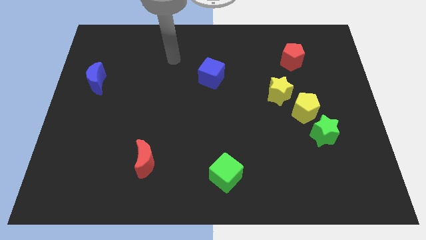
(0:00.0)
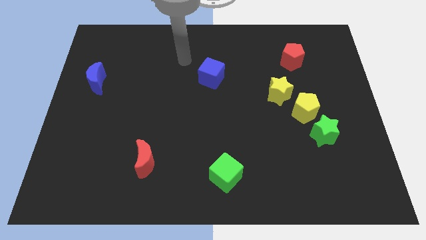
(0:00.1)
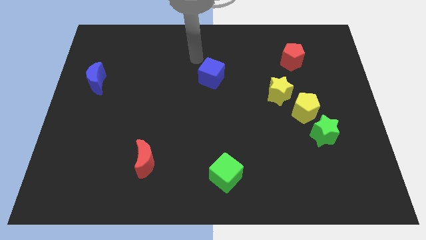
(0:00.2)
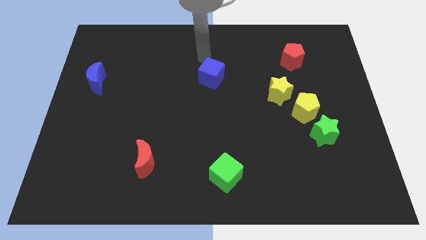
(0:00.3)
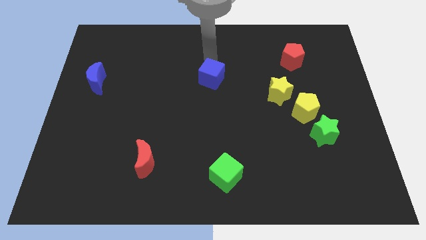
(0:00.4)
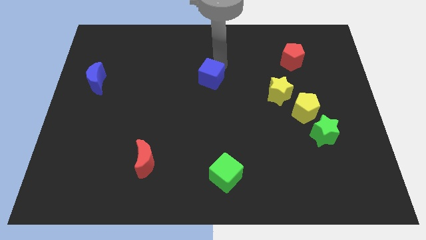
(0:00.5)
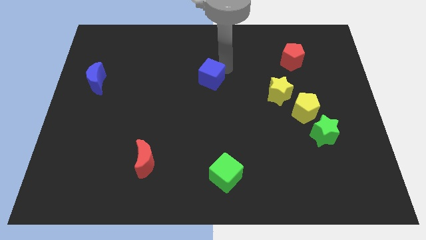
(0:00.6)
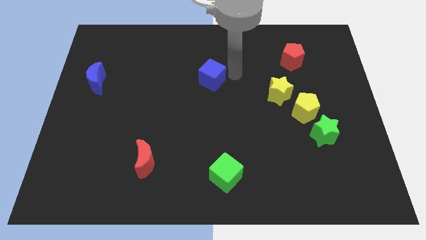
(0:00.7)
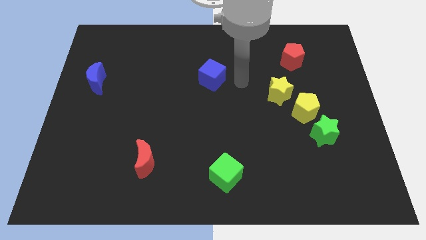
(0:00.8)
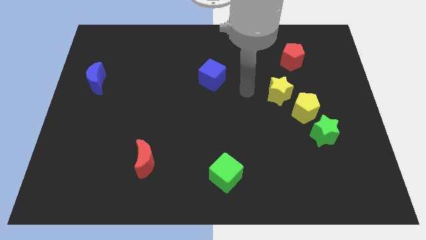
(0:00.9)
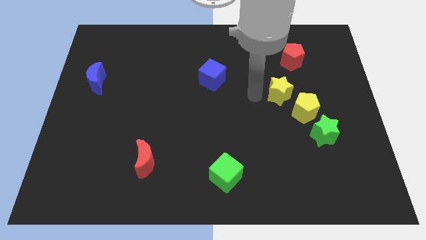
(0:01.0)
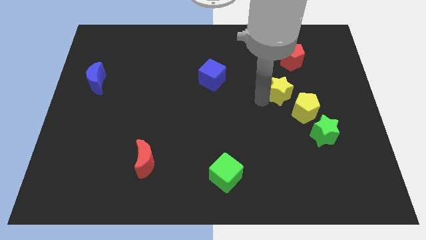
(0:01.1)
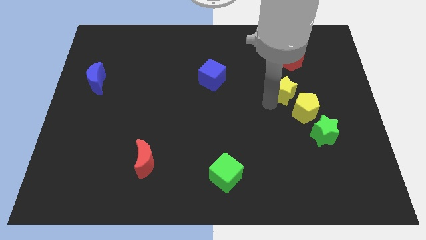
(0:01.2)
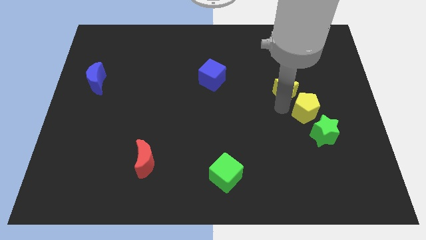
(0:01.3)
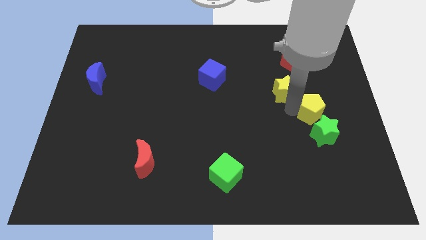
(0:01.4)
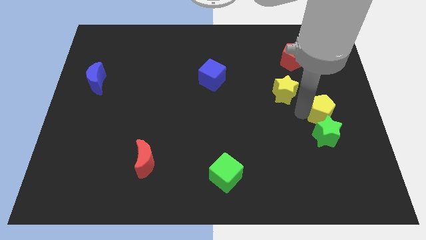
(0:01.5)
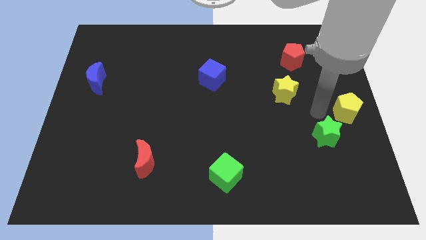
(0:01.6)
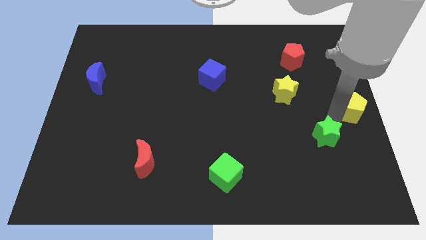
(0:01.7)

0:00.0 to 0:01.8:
pull the green star apart from the yellow pentagon

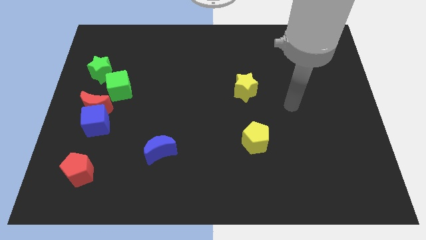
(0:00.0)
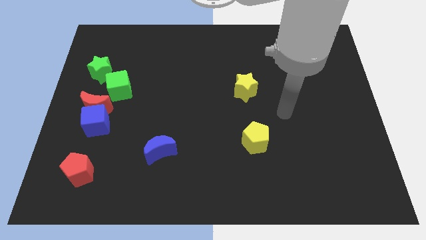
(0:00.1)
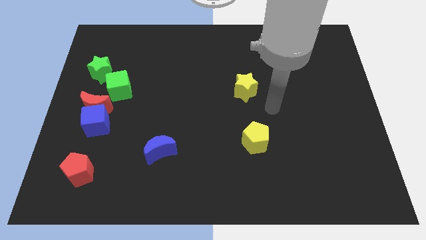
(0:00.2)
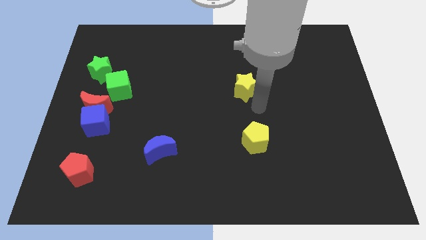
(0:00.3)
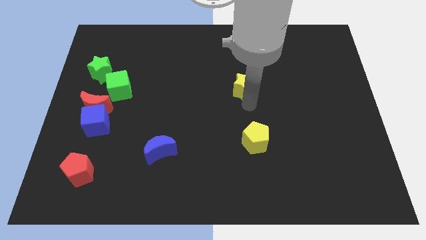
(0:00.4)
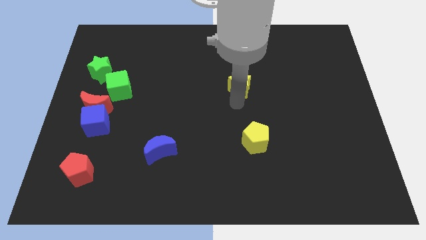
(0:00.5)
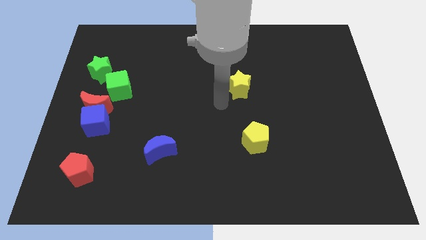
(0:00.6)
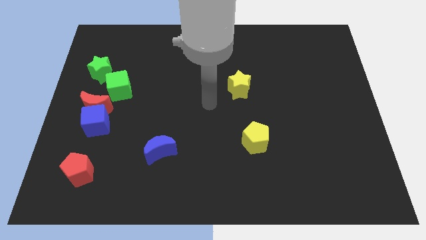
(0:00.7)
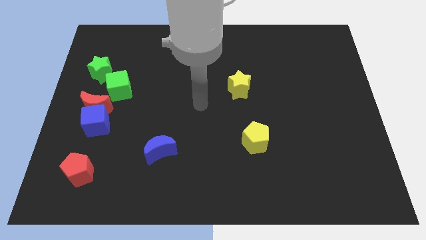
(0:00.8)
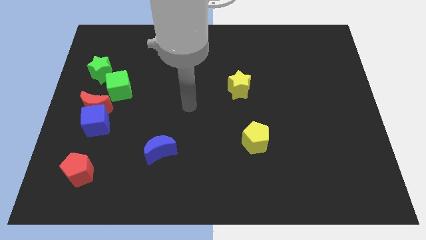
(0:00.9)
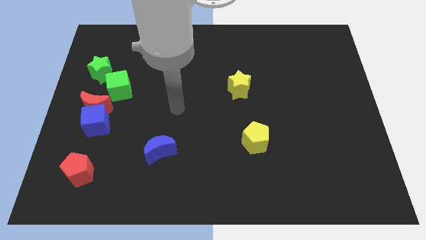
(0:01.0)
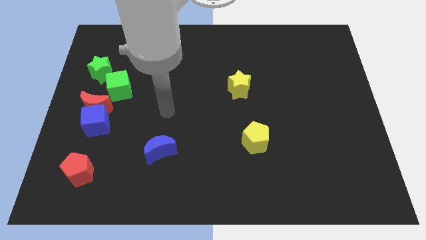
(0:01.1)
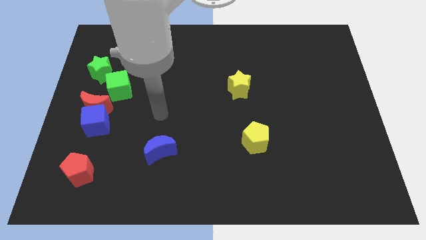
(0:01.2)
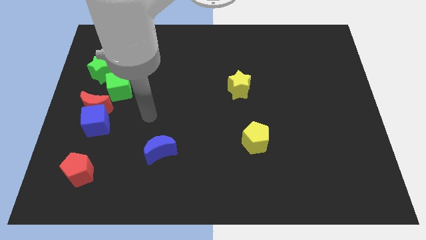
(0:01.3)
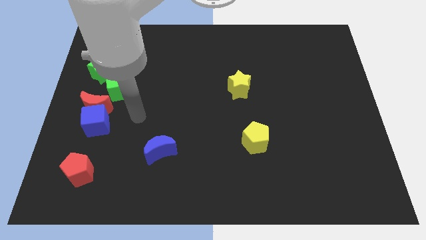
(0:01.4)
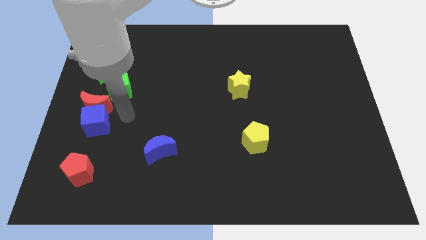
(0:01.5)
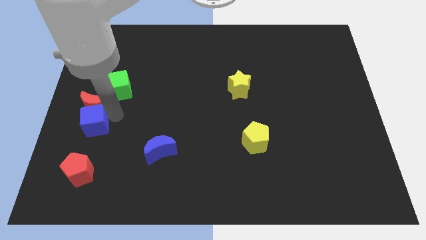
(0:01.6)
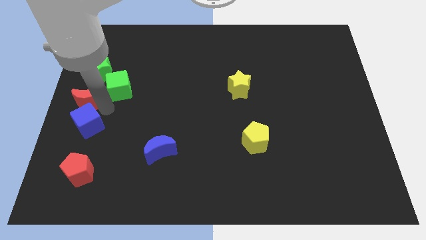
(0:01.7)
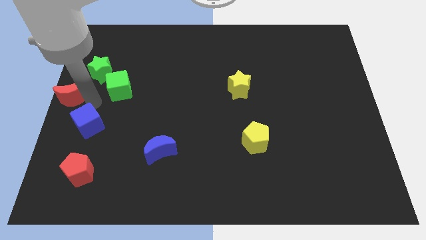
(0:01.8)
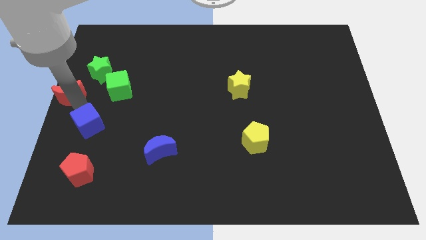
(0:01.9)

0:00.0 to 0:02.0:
separate the blue cube from the red moon

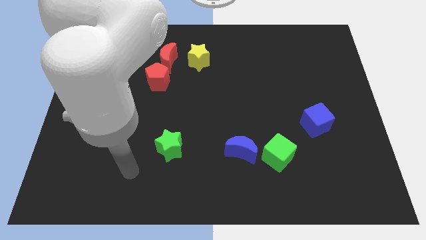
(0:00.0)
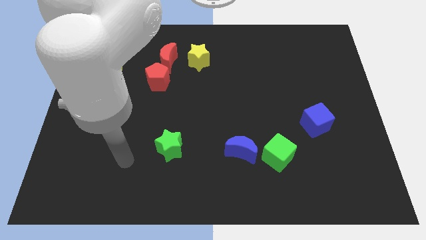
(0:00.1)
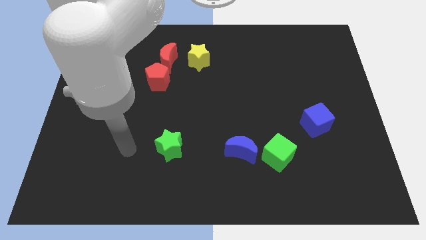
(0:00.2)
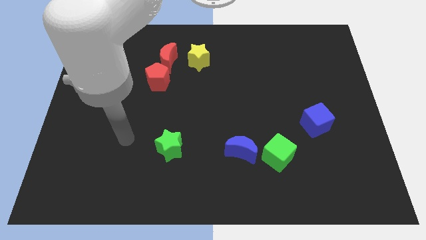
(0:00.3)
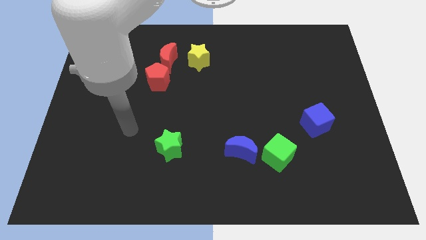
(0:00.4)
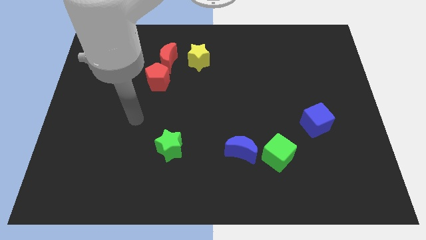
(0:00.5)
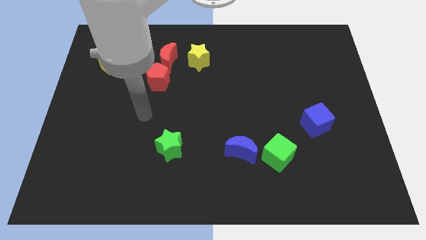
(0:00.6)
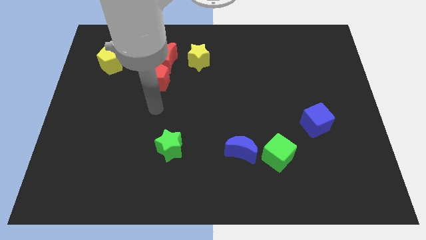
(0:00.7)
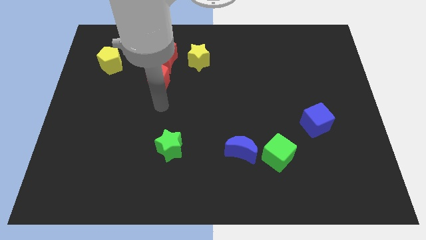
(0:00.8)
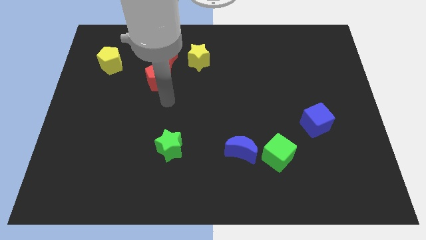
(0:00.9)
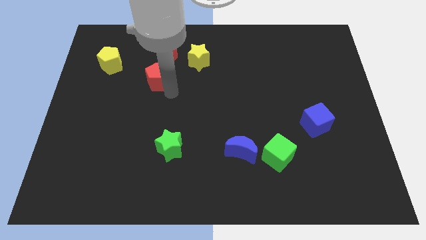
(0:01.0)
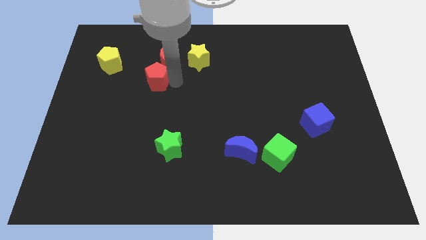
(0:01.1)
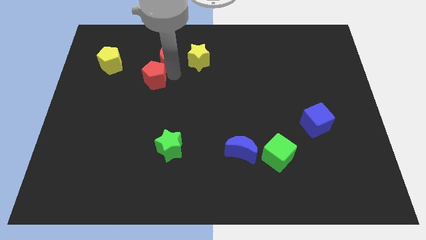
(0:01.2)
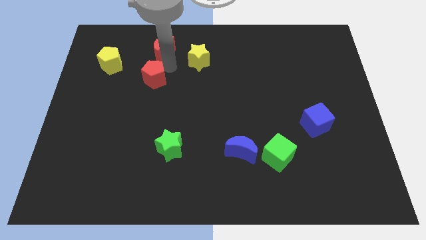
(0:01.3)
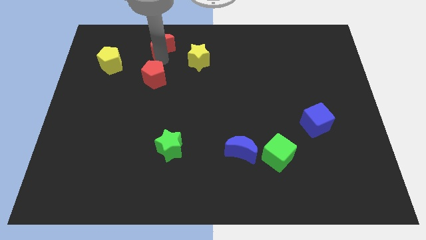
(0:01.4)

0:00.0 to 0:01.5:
move the red pentagon away from the red moon

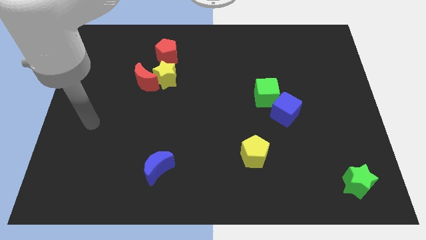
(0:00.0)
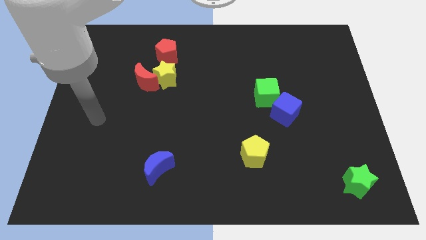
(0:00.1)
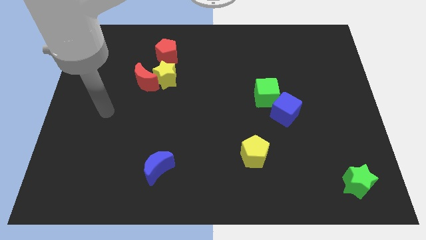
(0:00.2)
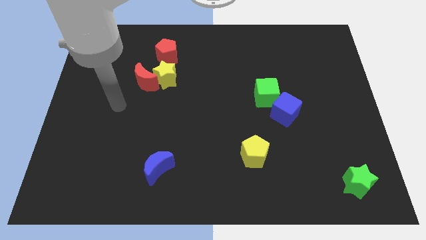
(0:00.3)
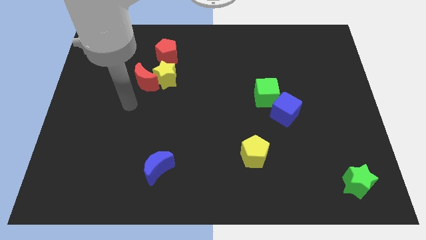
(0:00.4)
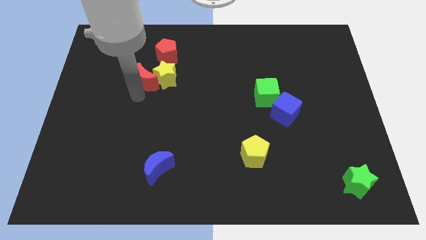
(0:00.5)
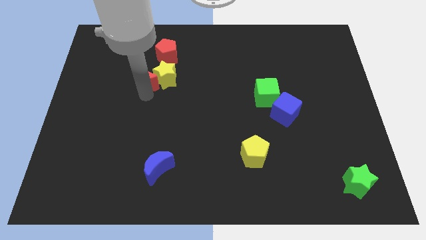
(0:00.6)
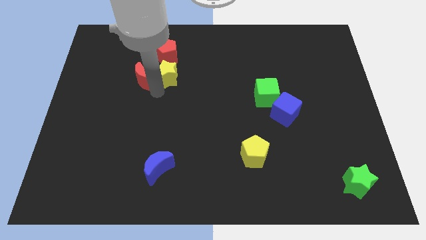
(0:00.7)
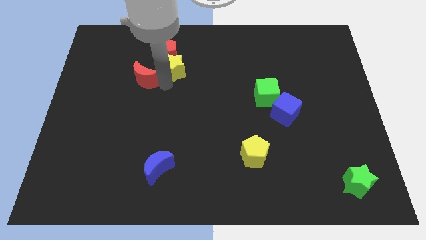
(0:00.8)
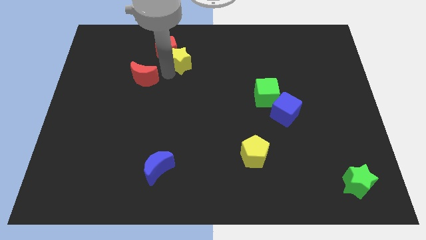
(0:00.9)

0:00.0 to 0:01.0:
pull the red moon apart from the yellow star

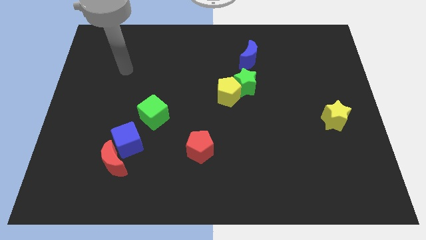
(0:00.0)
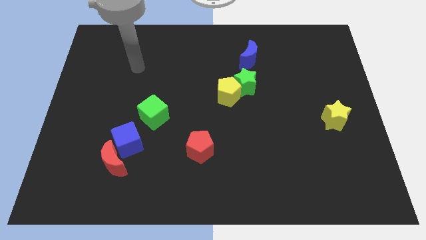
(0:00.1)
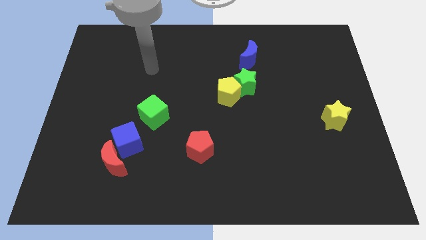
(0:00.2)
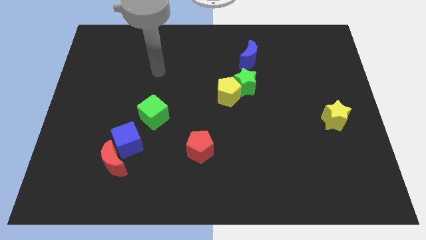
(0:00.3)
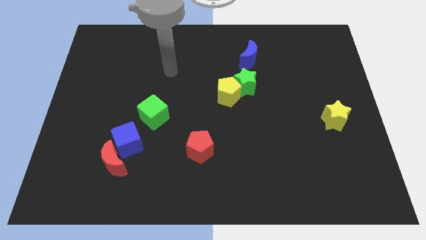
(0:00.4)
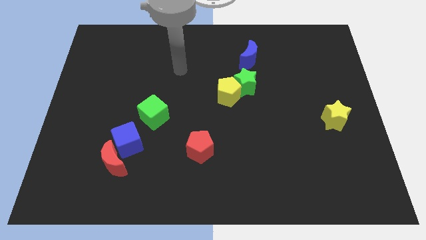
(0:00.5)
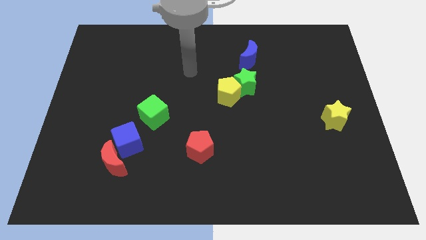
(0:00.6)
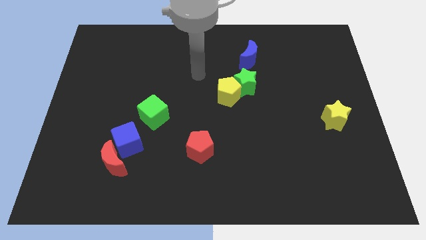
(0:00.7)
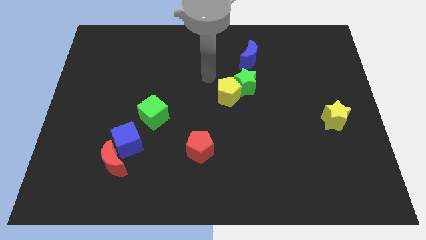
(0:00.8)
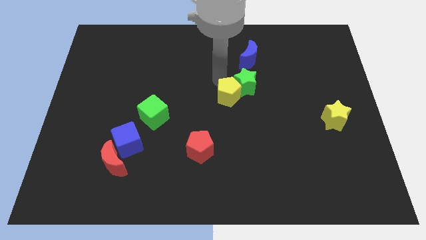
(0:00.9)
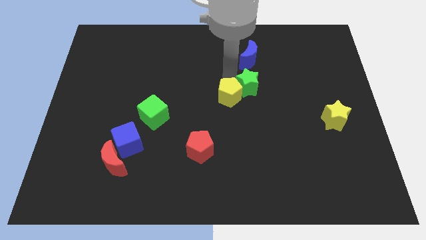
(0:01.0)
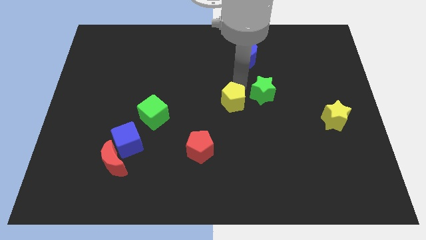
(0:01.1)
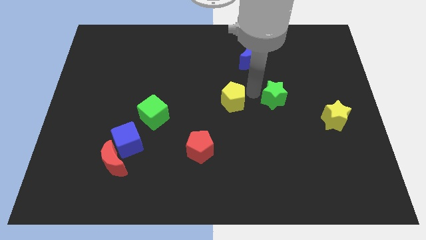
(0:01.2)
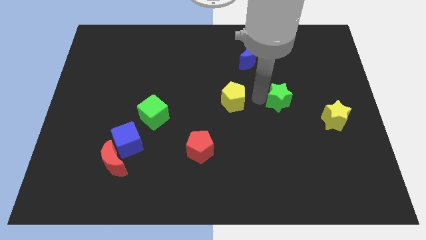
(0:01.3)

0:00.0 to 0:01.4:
move the yellow pentagon away from the green star

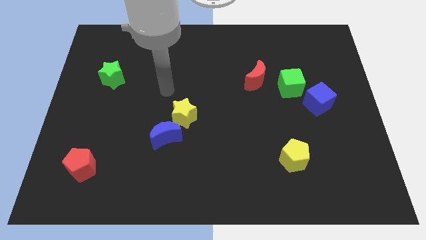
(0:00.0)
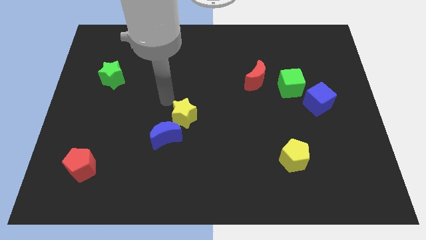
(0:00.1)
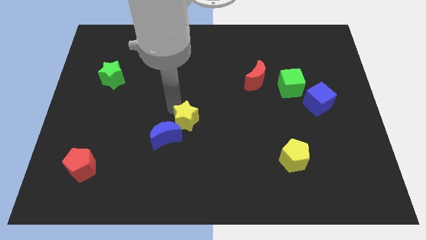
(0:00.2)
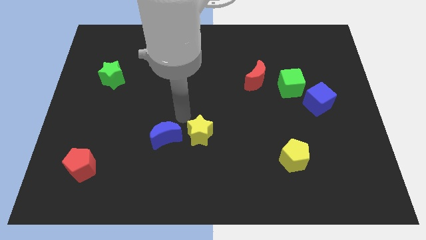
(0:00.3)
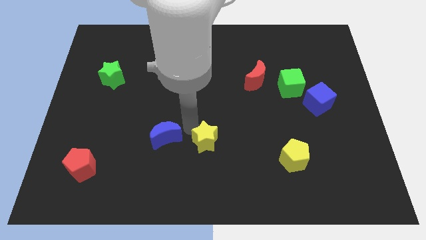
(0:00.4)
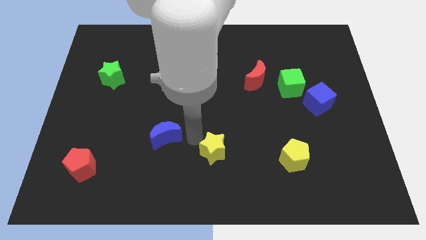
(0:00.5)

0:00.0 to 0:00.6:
separate the blue moon from the yellow star

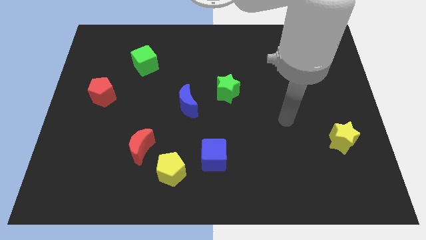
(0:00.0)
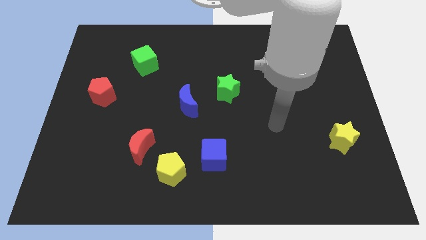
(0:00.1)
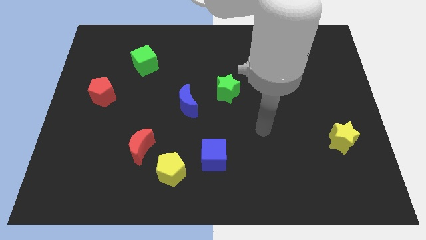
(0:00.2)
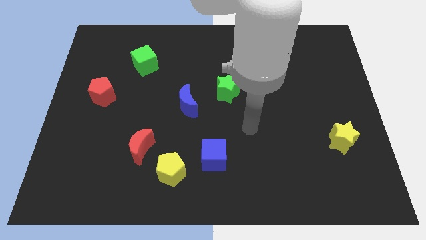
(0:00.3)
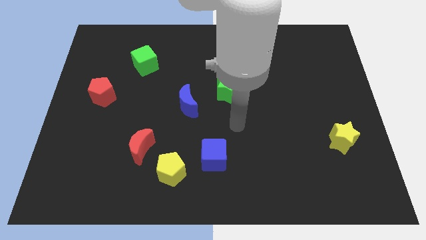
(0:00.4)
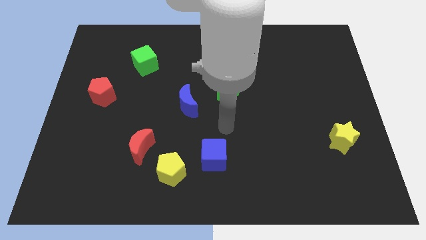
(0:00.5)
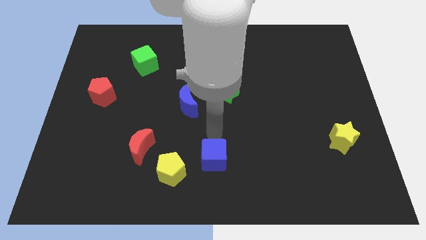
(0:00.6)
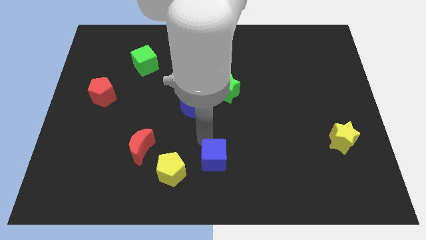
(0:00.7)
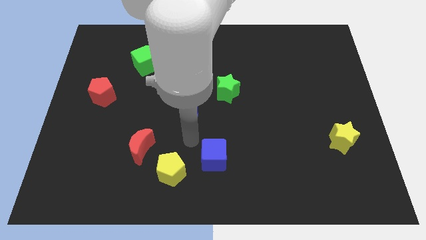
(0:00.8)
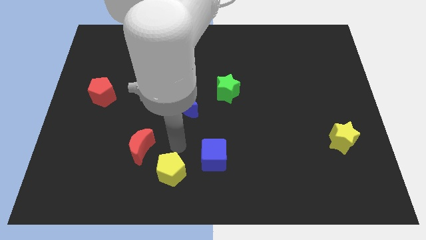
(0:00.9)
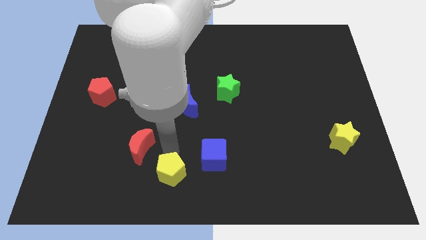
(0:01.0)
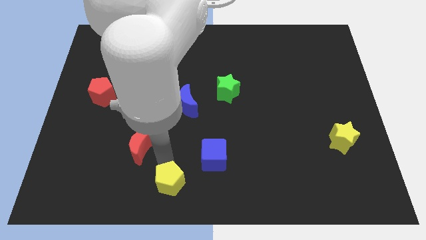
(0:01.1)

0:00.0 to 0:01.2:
separate the red moon from the yellow pentagon
